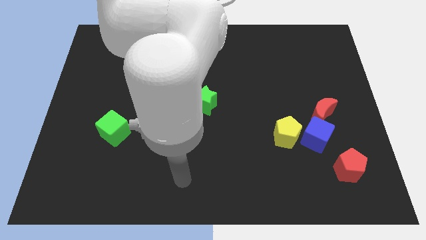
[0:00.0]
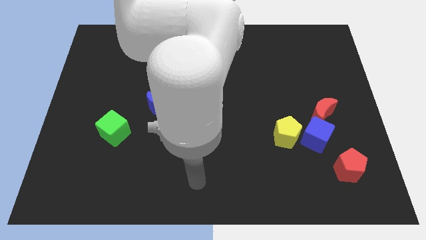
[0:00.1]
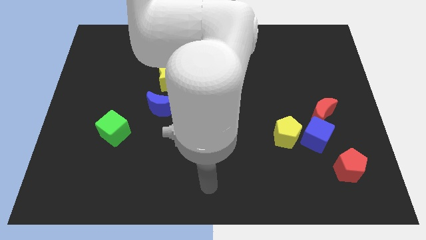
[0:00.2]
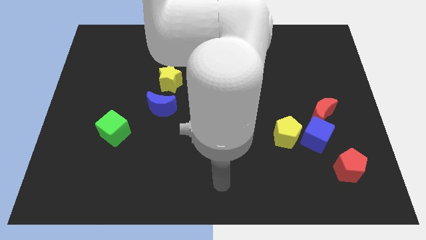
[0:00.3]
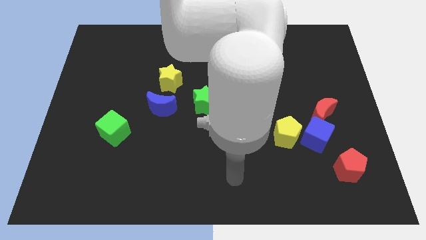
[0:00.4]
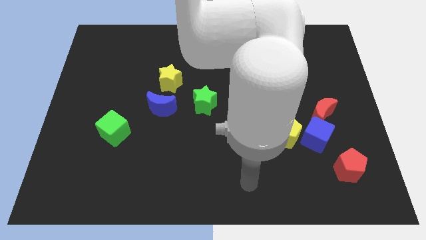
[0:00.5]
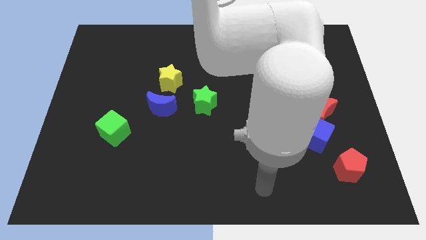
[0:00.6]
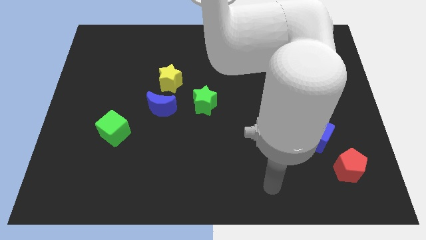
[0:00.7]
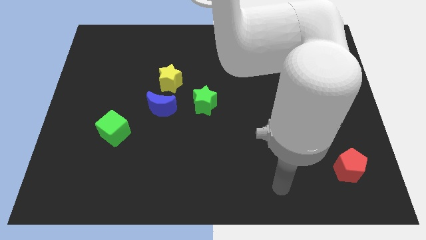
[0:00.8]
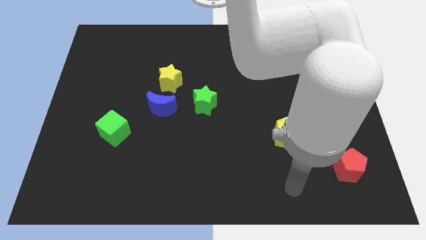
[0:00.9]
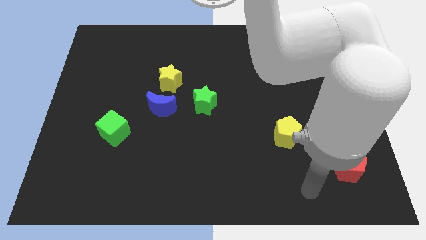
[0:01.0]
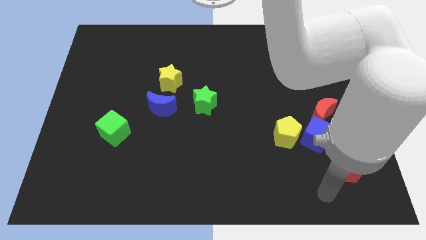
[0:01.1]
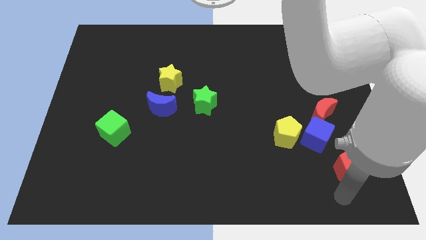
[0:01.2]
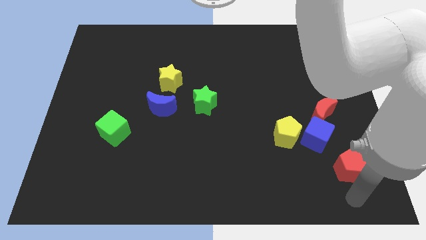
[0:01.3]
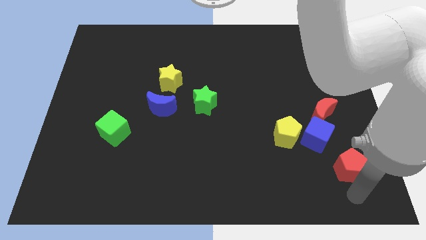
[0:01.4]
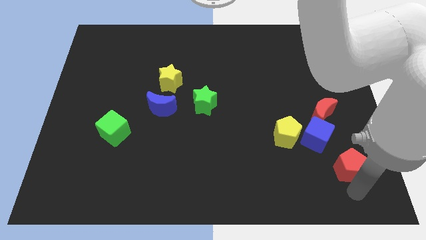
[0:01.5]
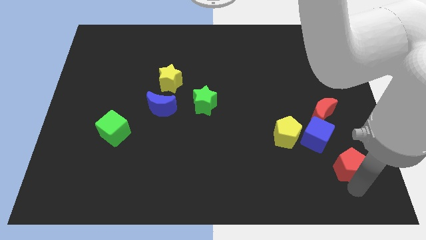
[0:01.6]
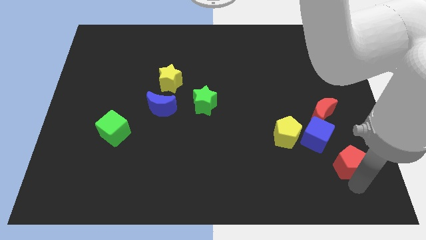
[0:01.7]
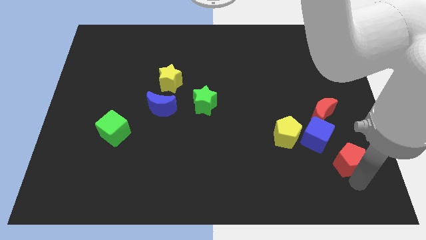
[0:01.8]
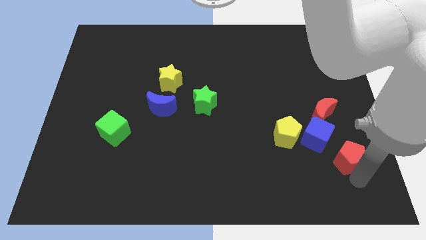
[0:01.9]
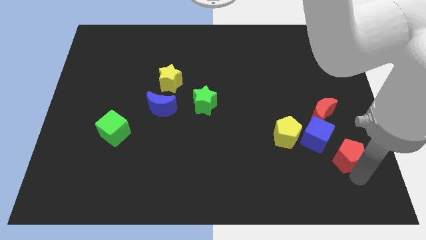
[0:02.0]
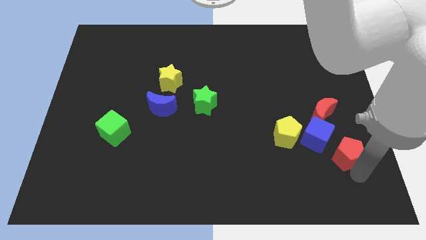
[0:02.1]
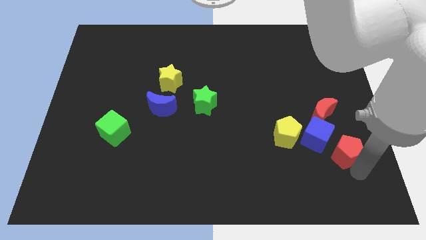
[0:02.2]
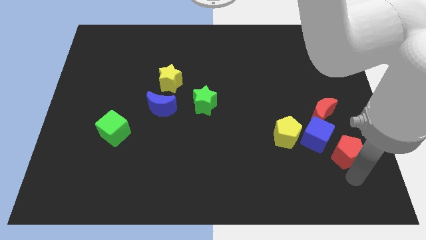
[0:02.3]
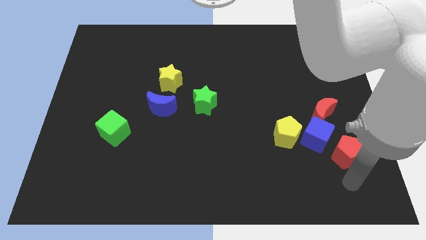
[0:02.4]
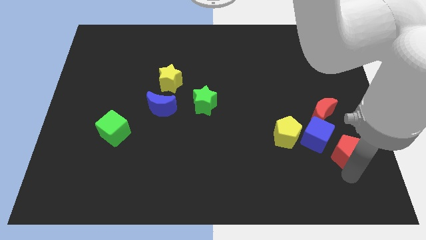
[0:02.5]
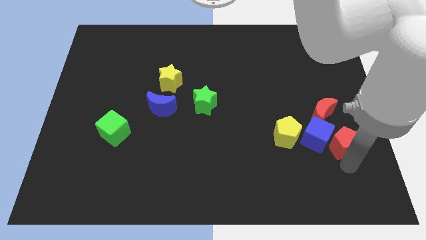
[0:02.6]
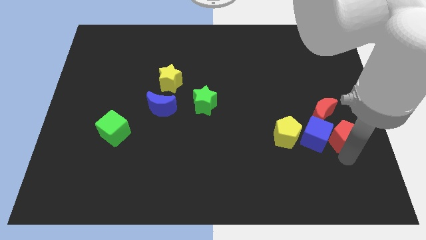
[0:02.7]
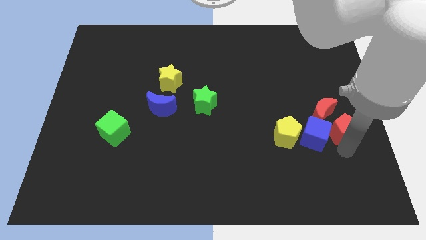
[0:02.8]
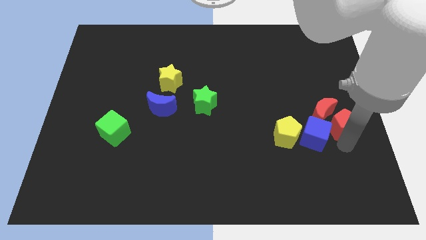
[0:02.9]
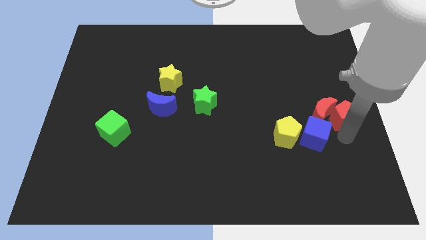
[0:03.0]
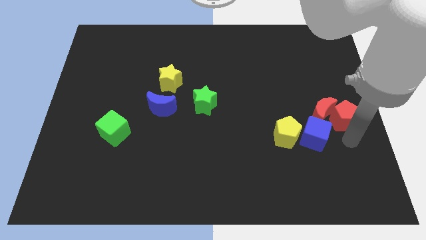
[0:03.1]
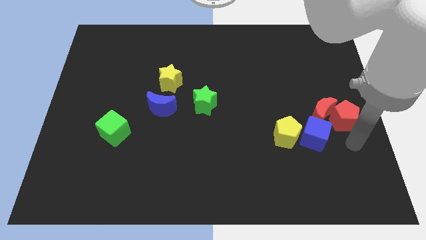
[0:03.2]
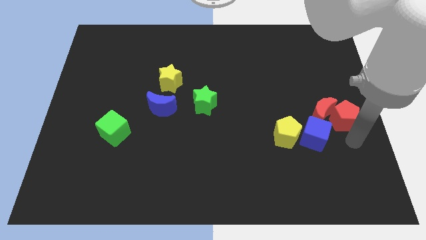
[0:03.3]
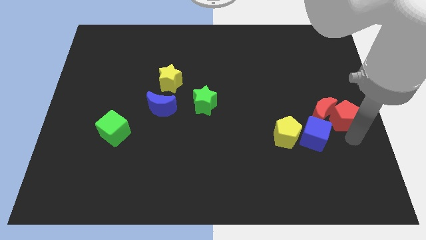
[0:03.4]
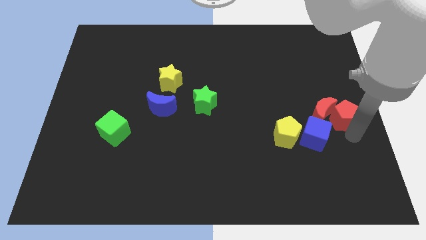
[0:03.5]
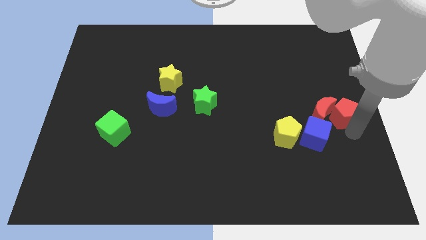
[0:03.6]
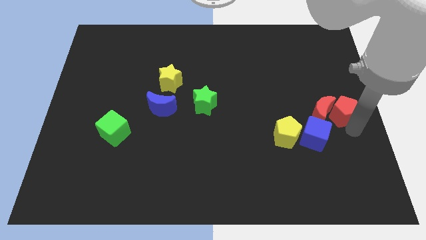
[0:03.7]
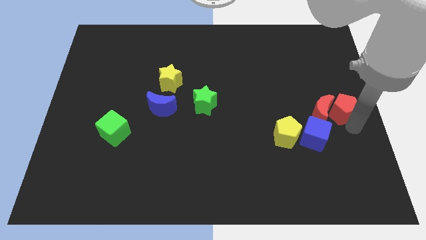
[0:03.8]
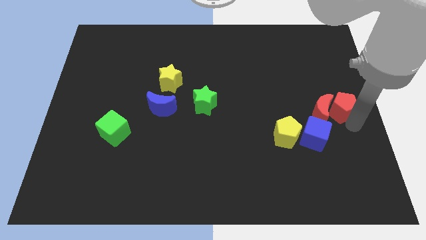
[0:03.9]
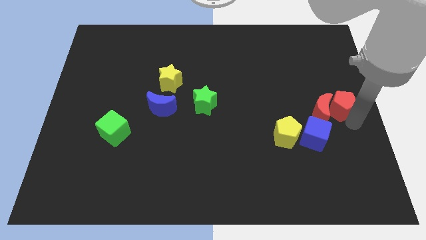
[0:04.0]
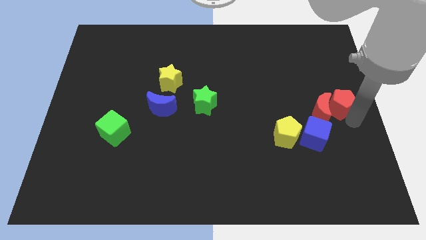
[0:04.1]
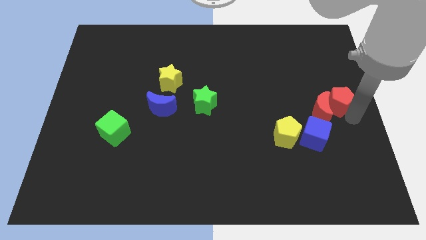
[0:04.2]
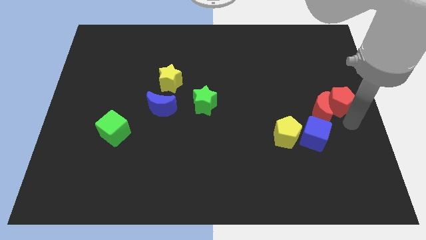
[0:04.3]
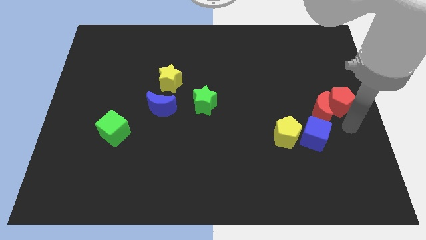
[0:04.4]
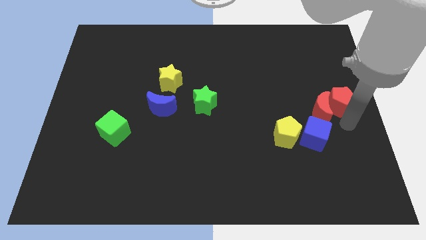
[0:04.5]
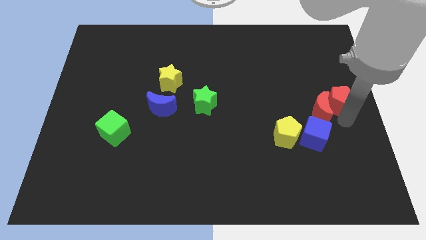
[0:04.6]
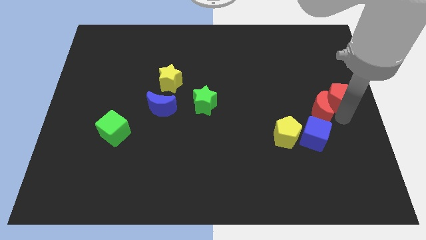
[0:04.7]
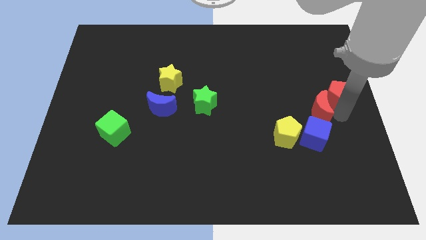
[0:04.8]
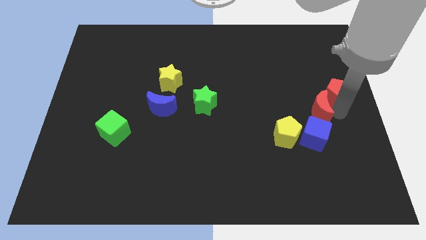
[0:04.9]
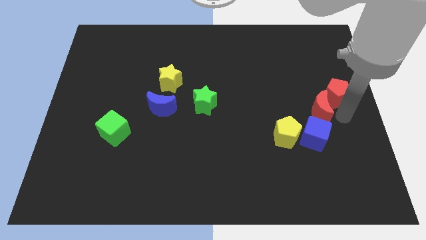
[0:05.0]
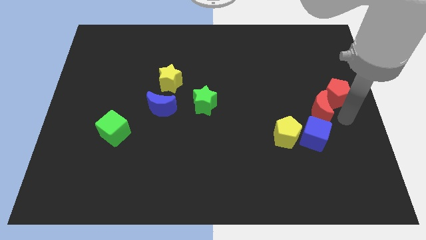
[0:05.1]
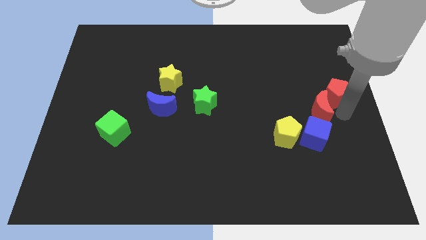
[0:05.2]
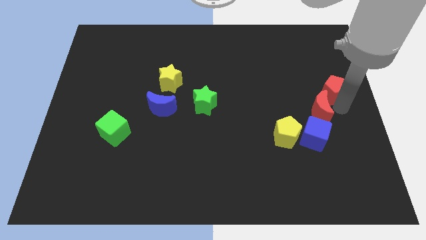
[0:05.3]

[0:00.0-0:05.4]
slide the red pentagon up

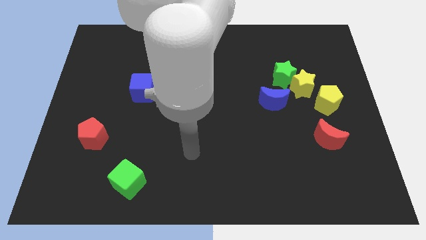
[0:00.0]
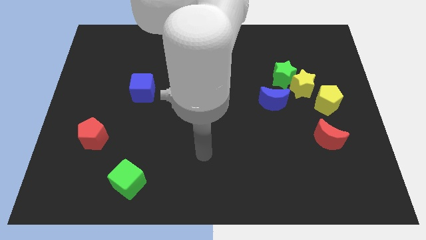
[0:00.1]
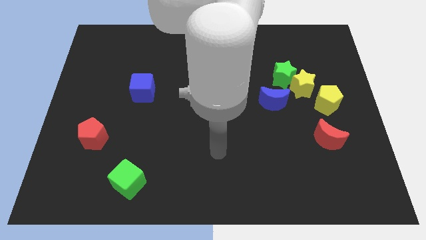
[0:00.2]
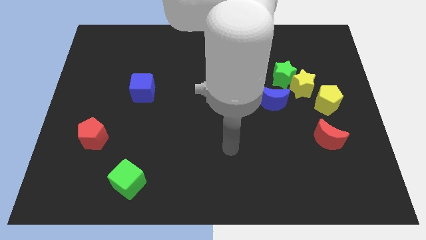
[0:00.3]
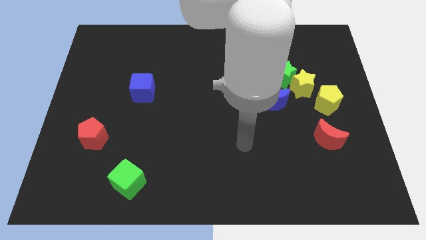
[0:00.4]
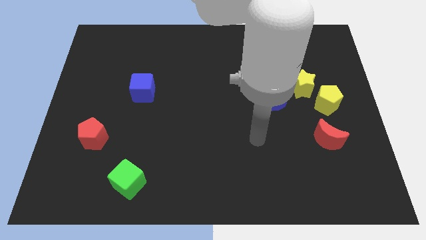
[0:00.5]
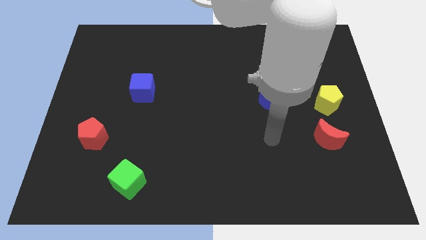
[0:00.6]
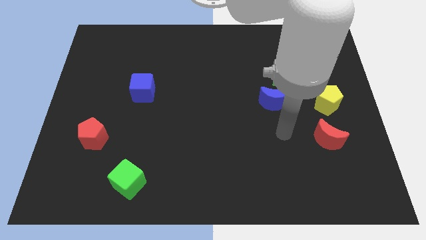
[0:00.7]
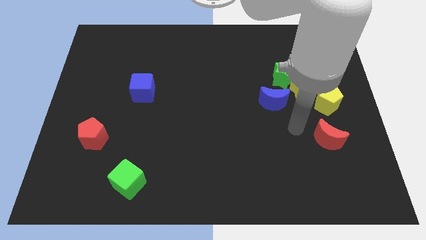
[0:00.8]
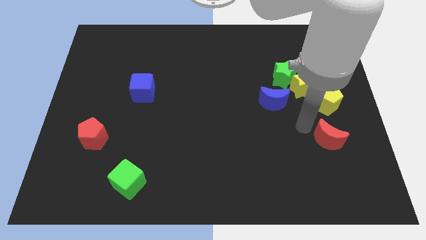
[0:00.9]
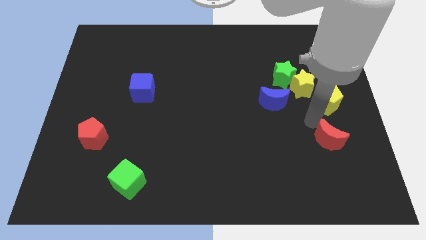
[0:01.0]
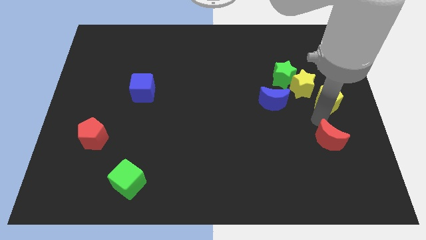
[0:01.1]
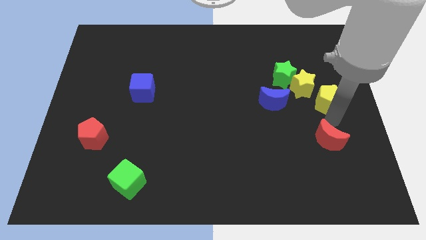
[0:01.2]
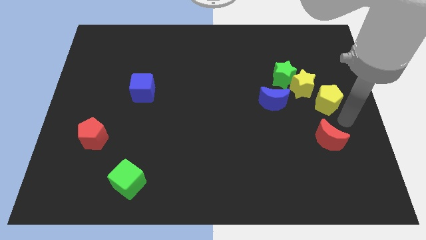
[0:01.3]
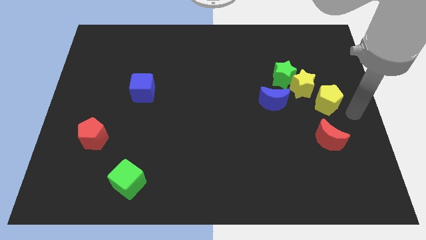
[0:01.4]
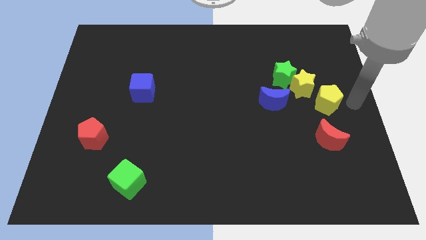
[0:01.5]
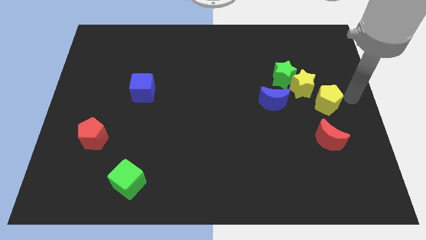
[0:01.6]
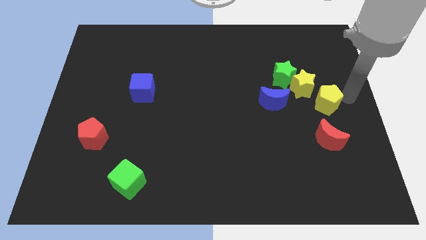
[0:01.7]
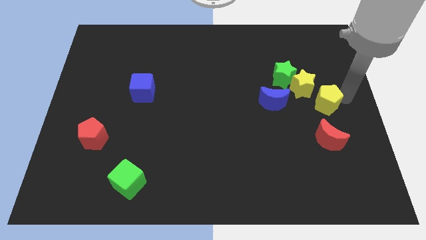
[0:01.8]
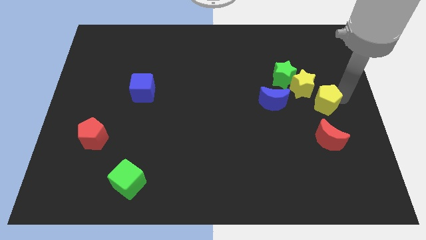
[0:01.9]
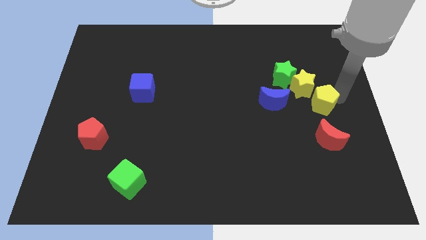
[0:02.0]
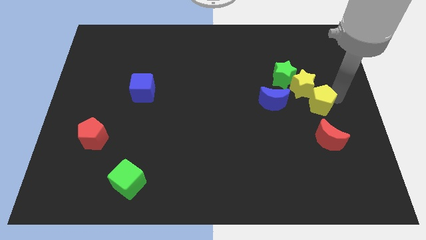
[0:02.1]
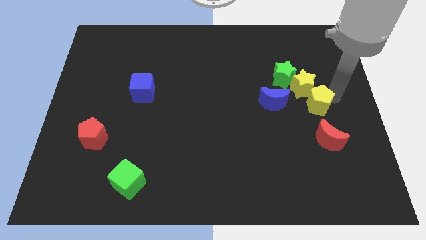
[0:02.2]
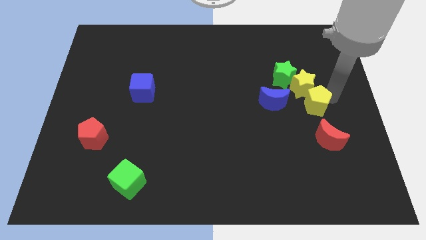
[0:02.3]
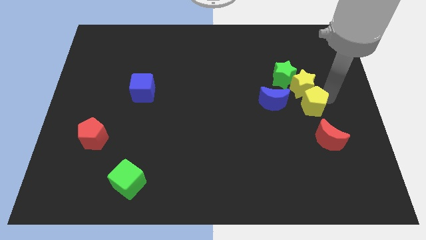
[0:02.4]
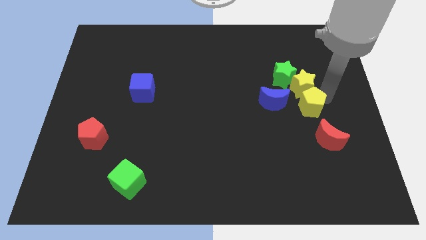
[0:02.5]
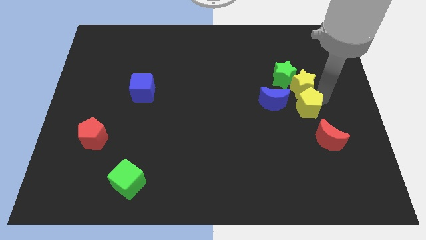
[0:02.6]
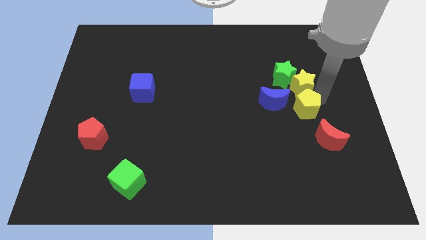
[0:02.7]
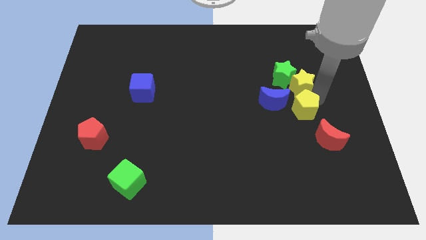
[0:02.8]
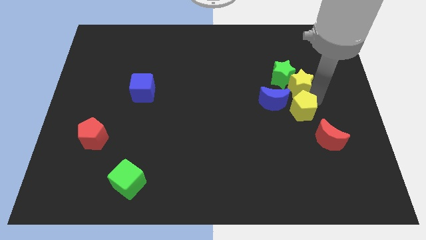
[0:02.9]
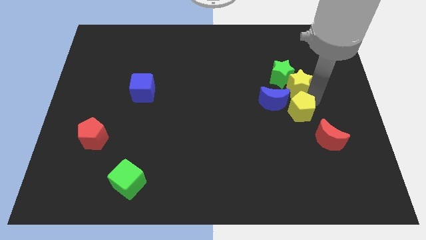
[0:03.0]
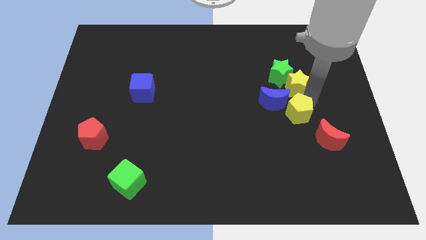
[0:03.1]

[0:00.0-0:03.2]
slightly push the yellow pentagon to the left
